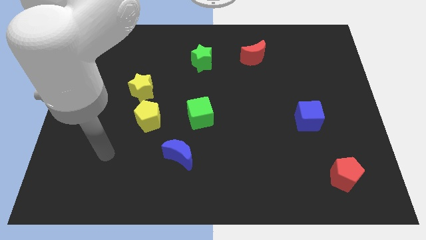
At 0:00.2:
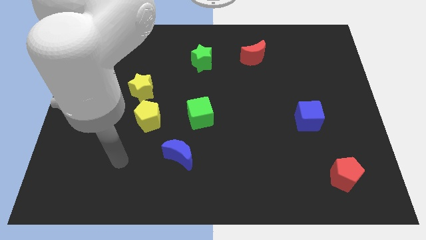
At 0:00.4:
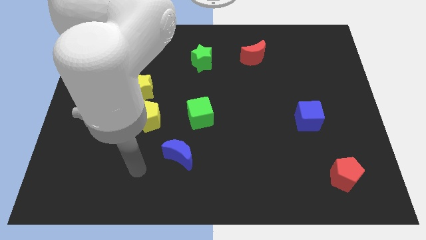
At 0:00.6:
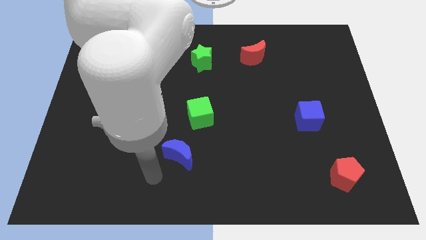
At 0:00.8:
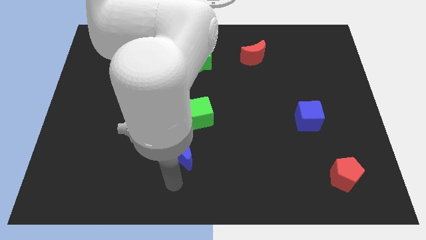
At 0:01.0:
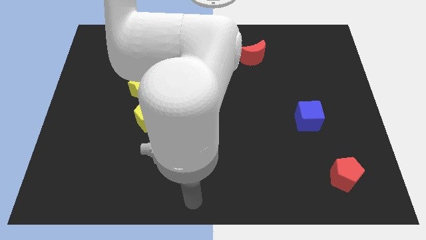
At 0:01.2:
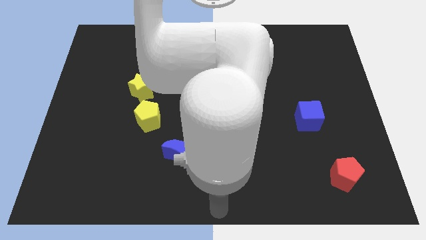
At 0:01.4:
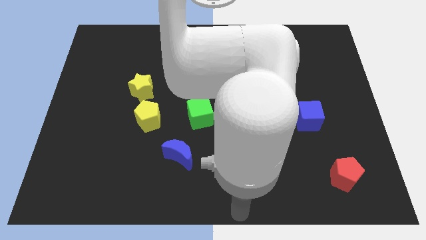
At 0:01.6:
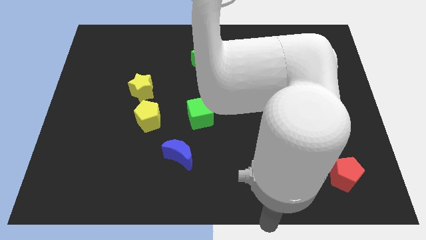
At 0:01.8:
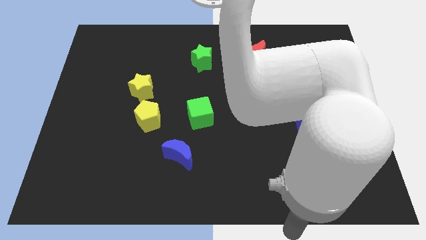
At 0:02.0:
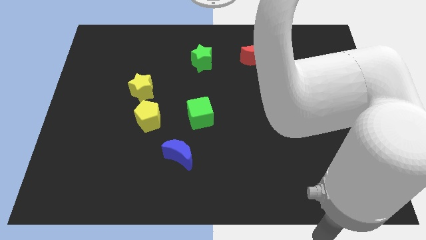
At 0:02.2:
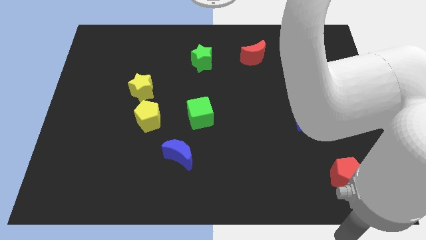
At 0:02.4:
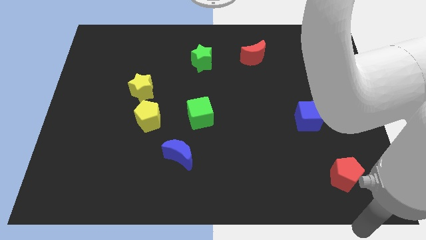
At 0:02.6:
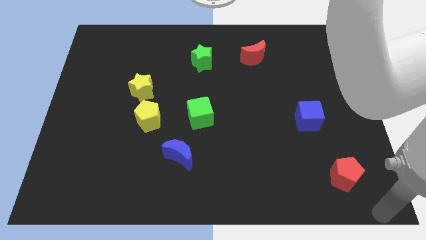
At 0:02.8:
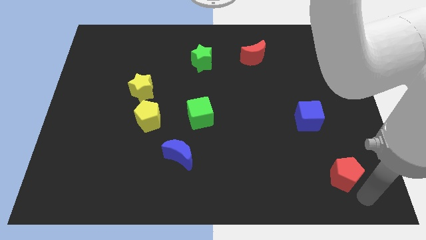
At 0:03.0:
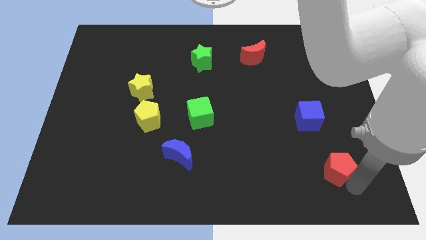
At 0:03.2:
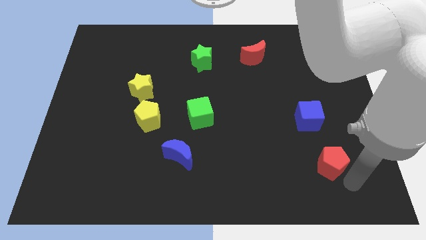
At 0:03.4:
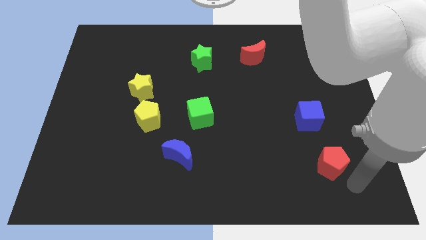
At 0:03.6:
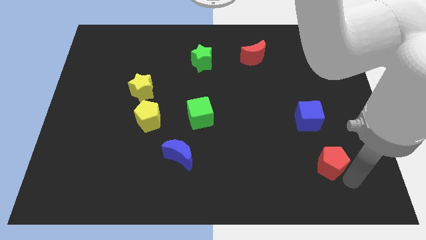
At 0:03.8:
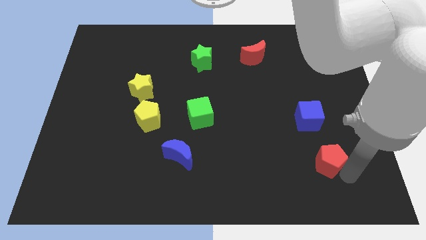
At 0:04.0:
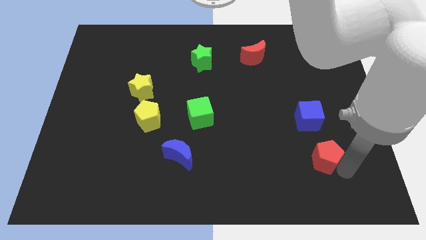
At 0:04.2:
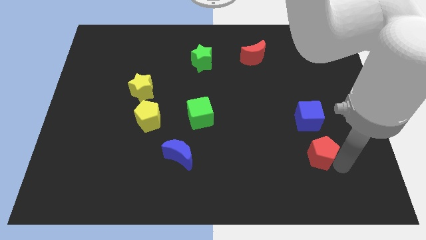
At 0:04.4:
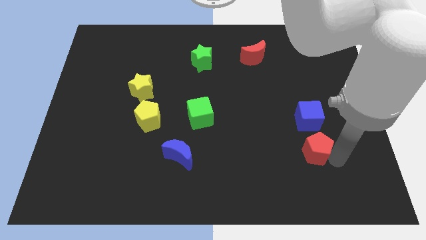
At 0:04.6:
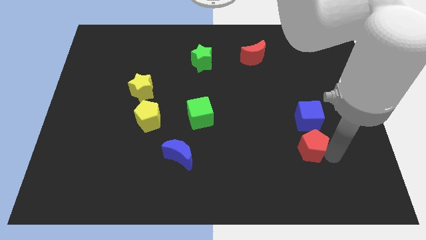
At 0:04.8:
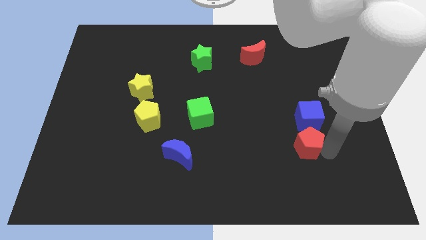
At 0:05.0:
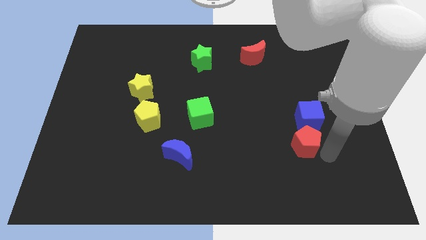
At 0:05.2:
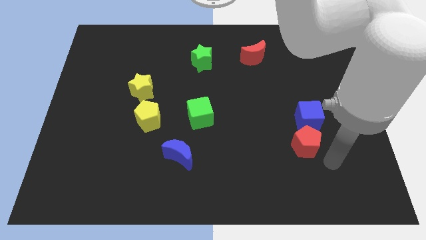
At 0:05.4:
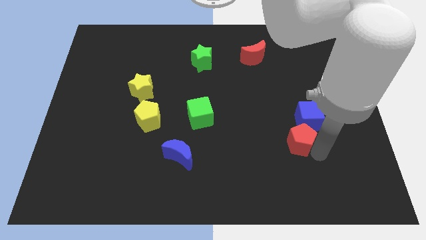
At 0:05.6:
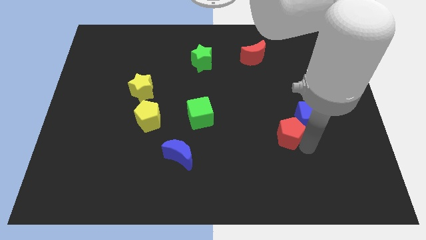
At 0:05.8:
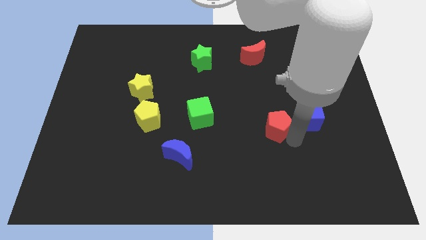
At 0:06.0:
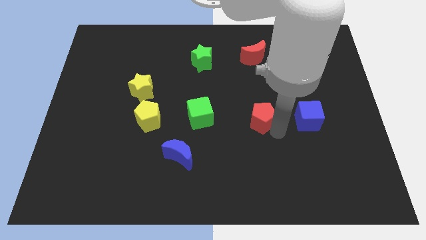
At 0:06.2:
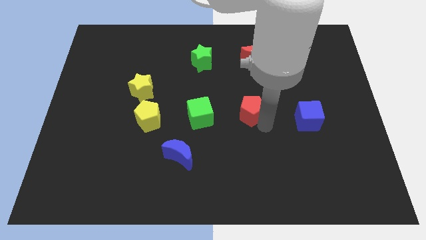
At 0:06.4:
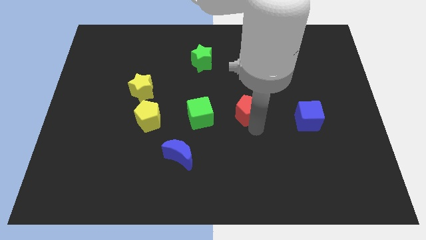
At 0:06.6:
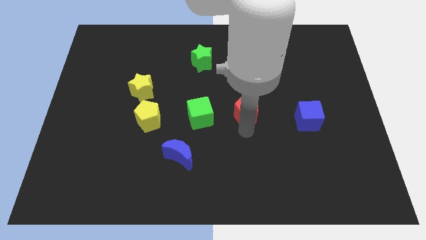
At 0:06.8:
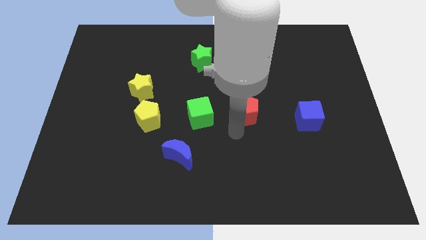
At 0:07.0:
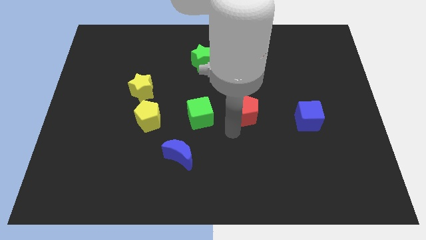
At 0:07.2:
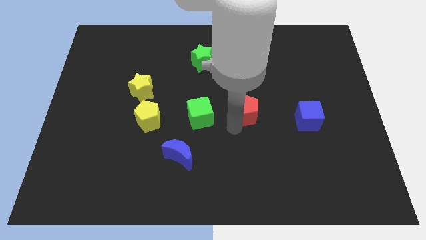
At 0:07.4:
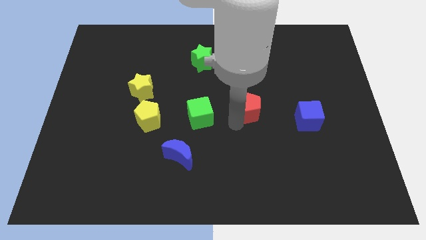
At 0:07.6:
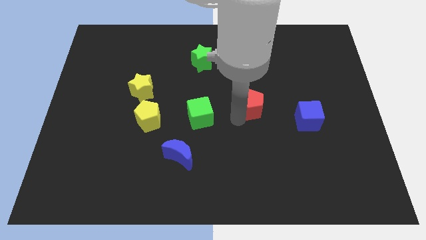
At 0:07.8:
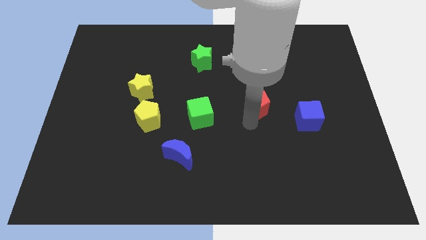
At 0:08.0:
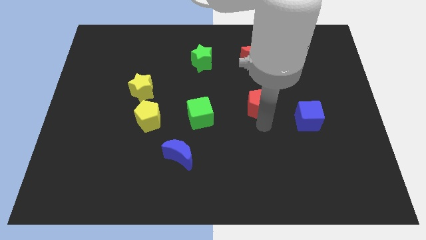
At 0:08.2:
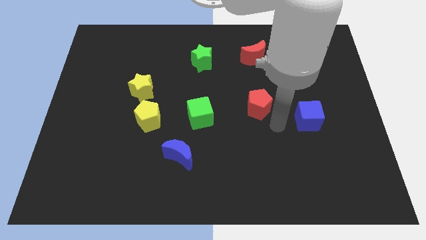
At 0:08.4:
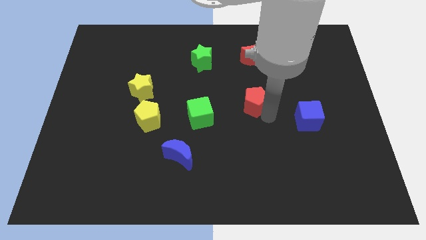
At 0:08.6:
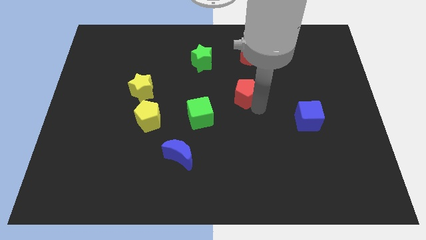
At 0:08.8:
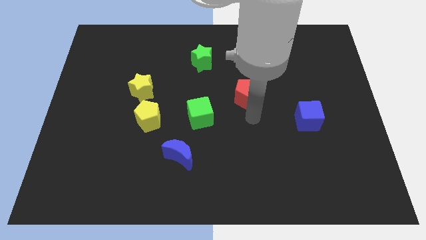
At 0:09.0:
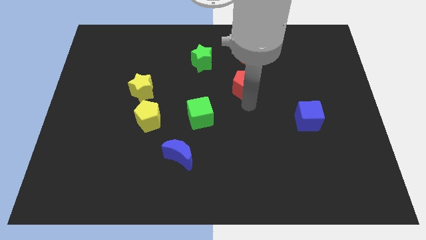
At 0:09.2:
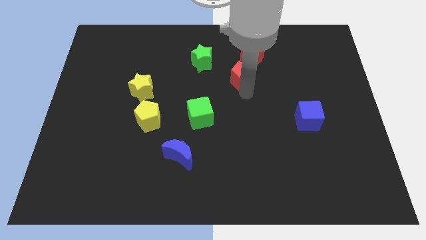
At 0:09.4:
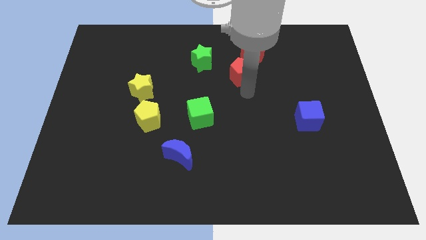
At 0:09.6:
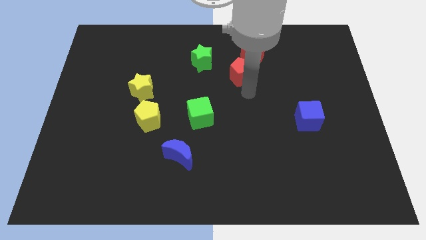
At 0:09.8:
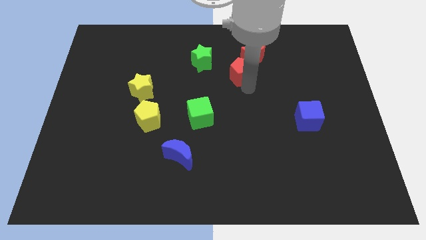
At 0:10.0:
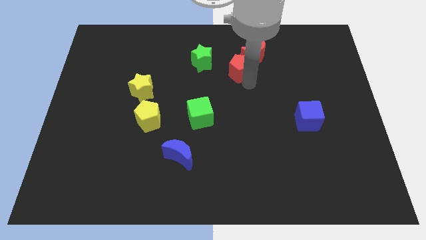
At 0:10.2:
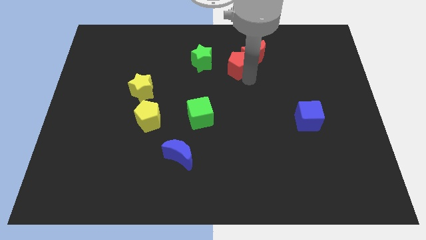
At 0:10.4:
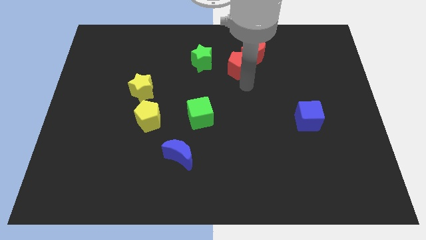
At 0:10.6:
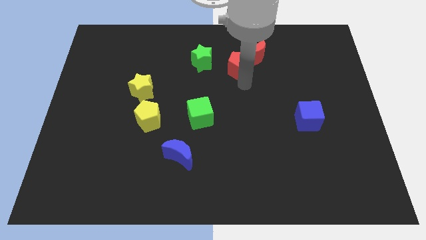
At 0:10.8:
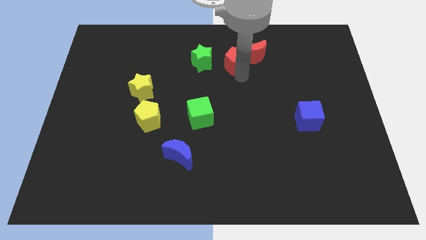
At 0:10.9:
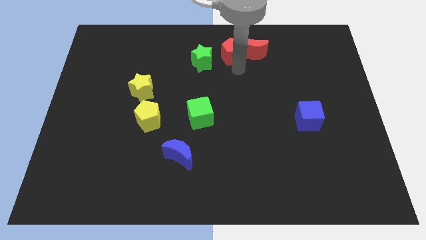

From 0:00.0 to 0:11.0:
put the red pentagon to the top
